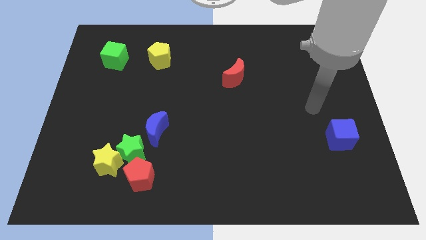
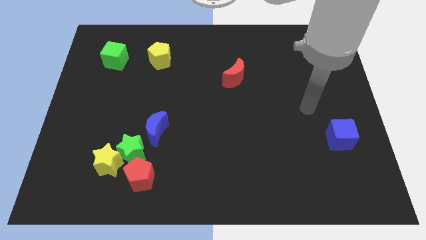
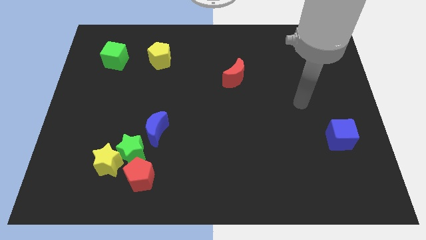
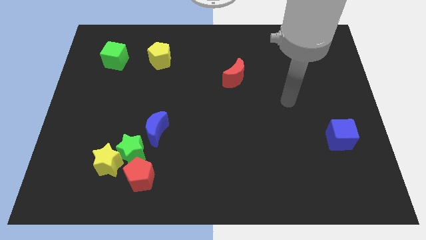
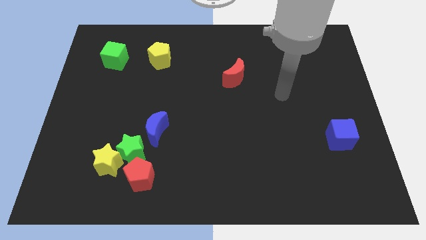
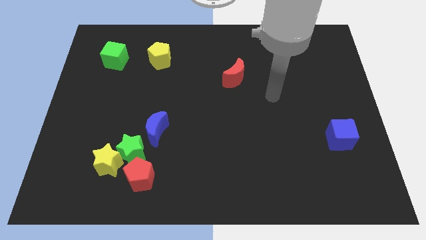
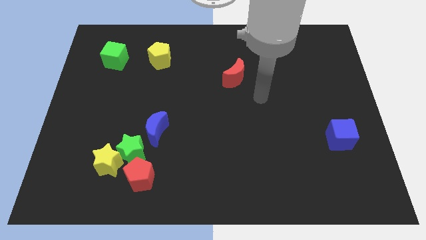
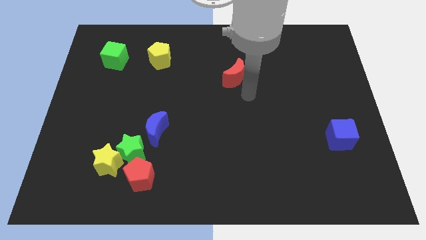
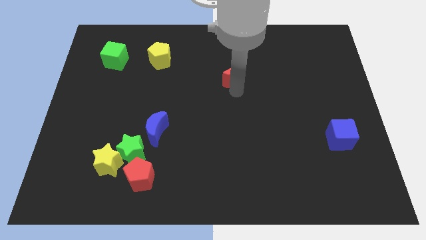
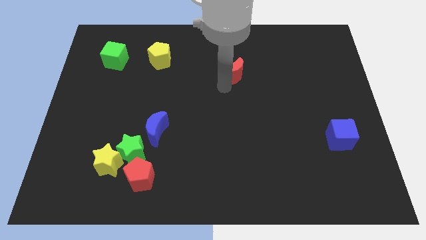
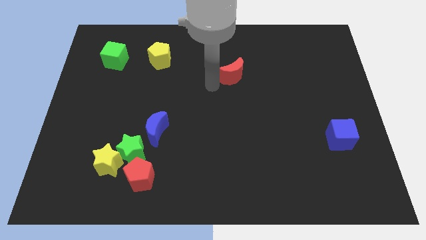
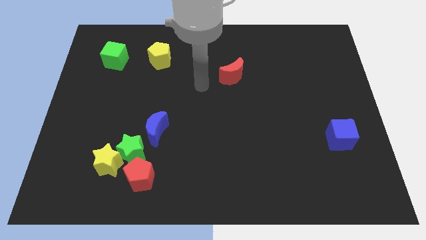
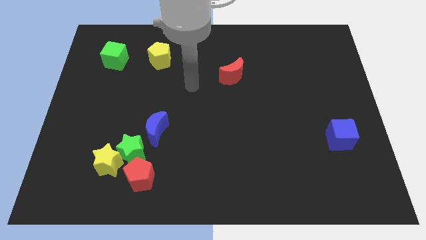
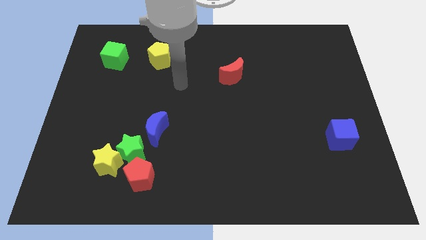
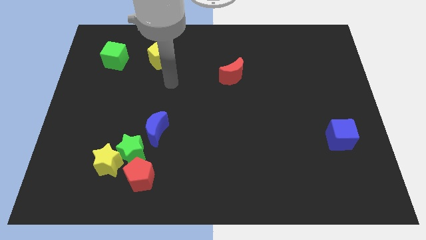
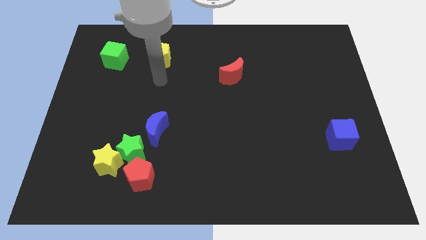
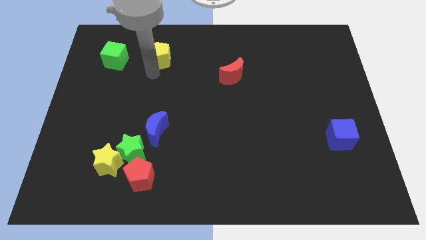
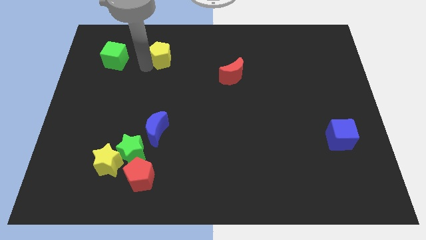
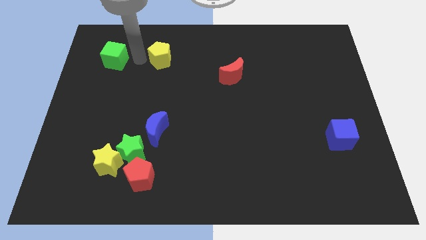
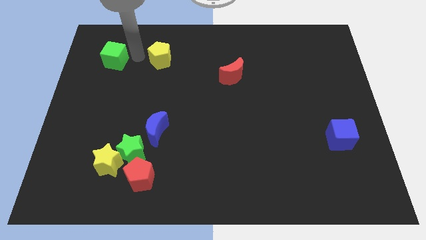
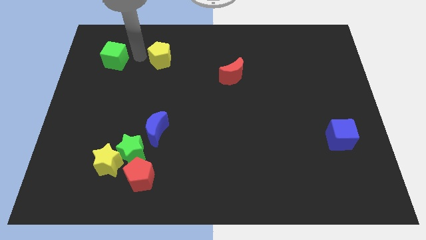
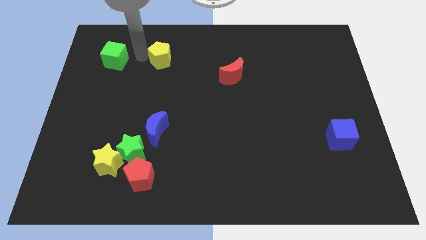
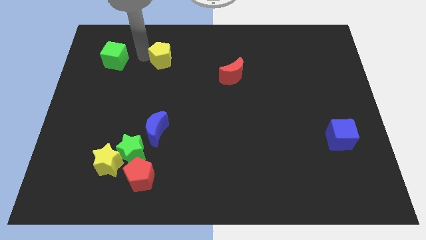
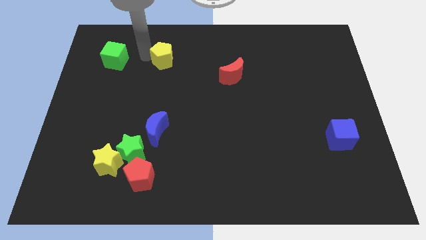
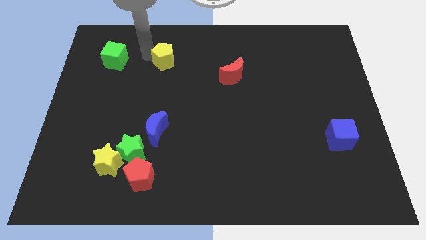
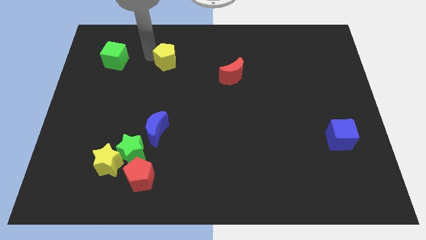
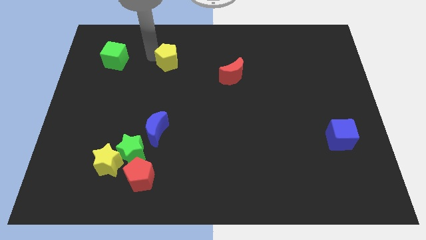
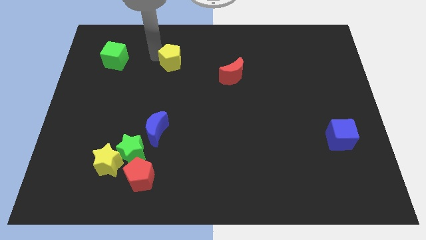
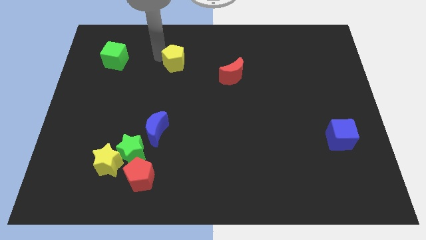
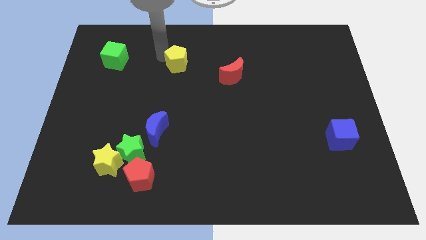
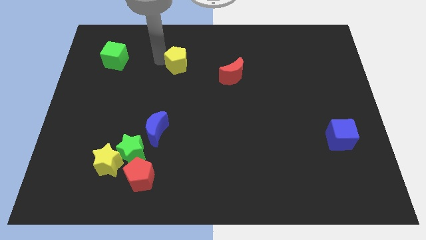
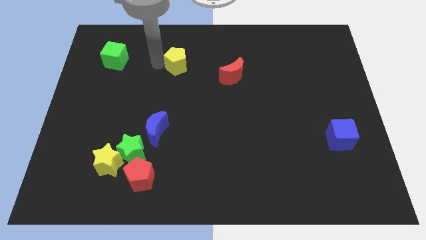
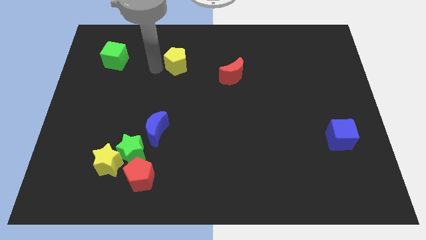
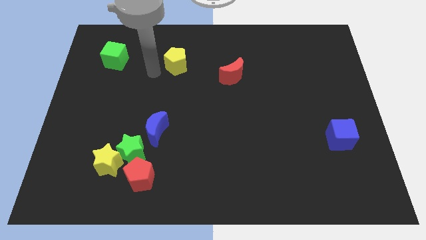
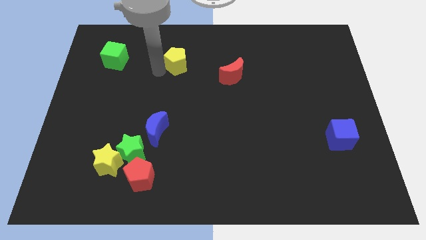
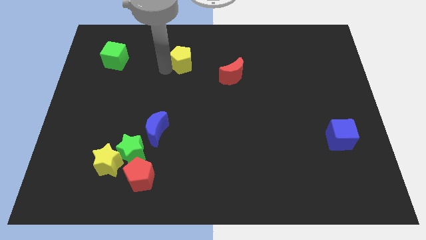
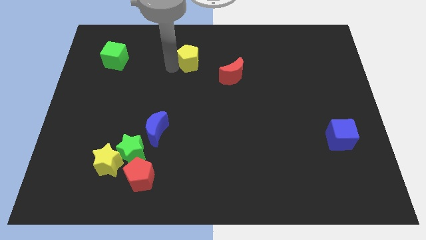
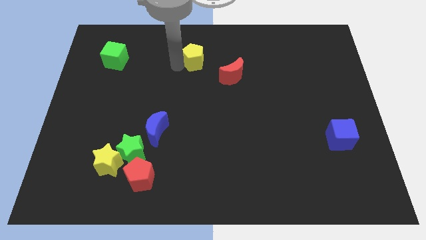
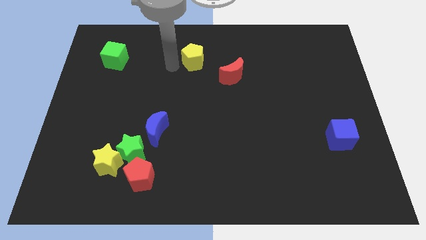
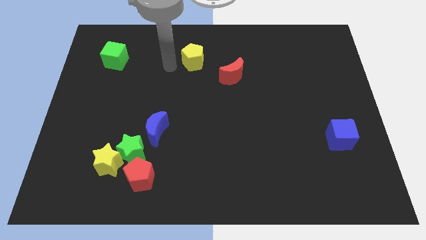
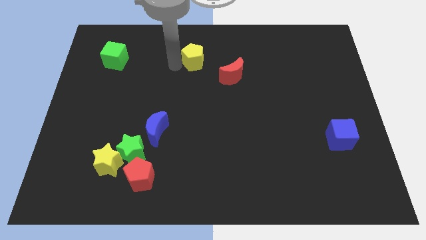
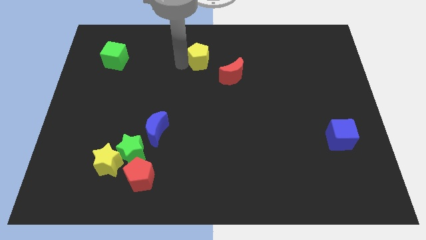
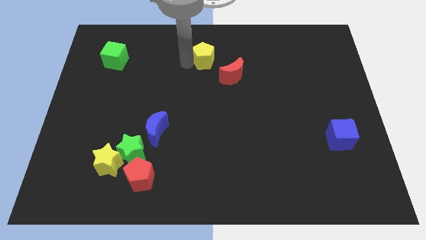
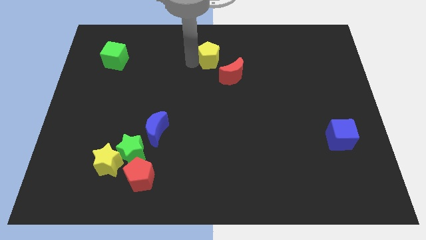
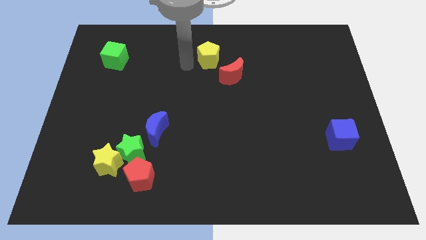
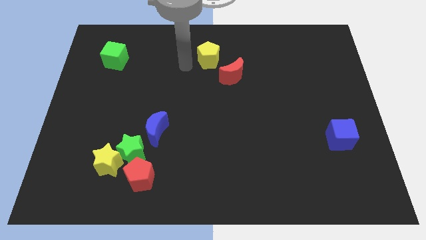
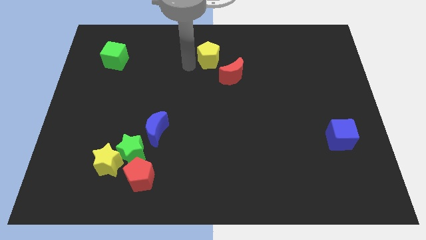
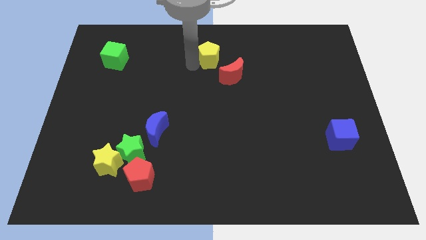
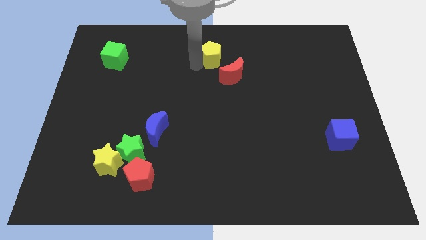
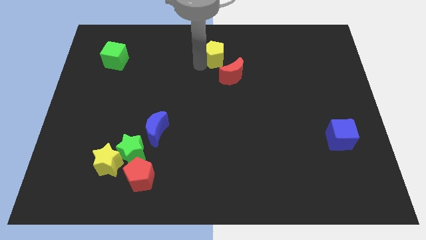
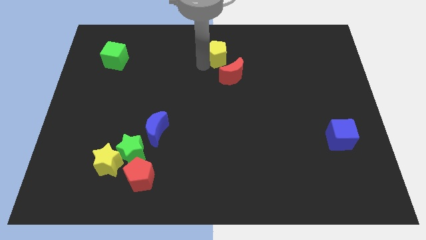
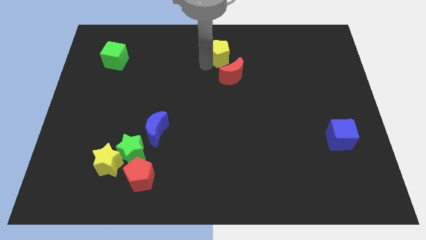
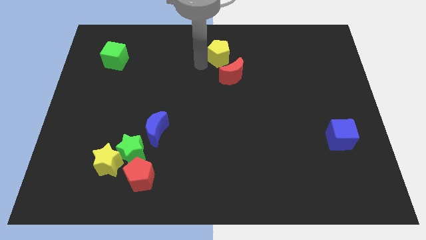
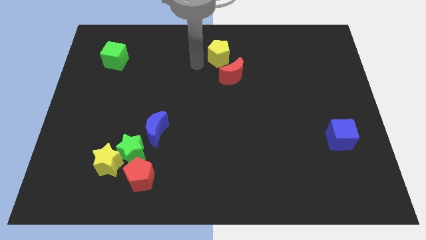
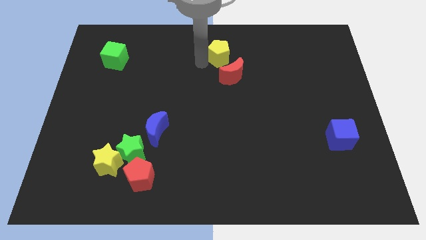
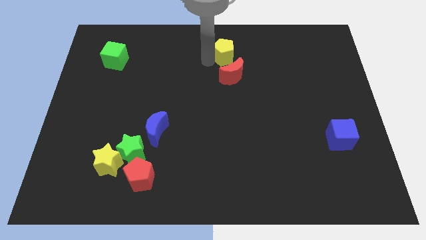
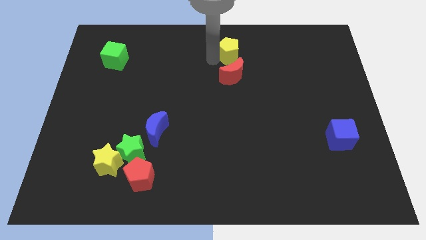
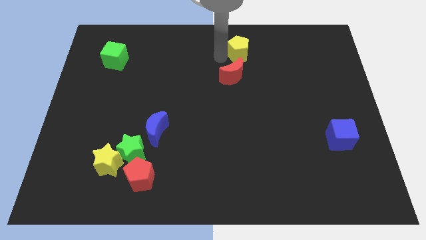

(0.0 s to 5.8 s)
slide the yellow pentagon to the right

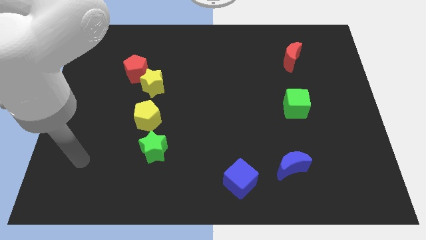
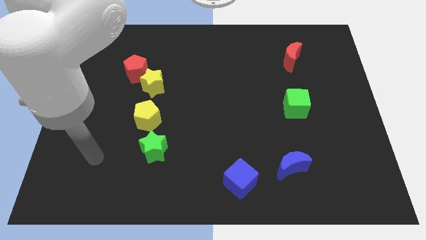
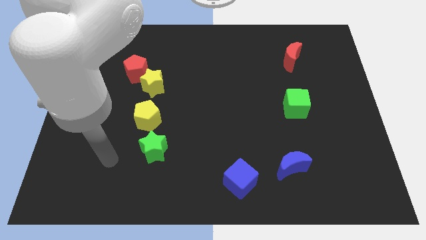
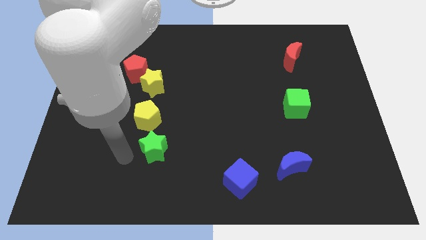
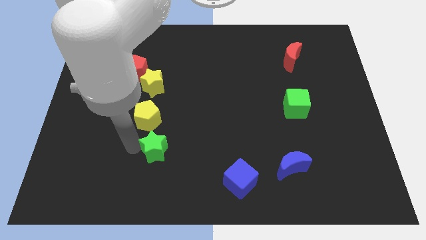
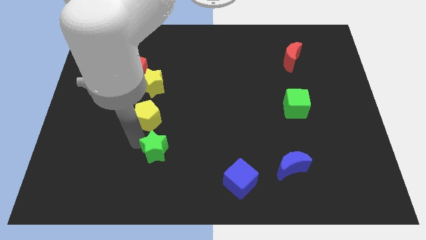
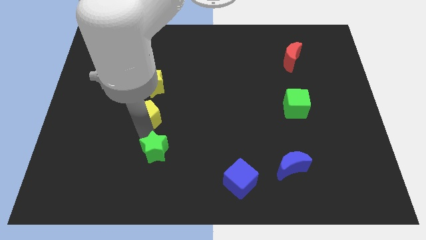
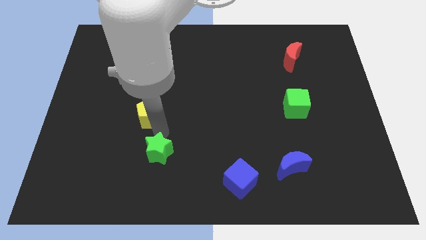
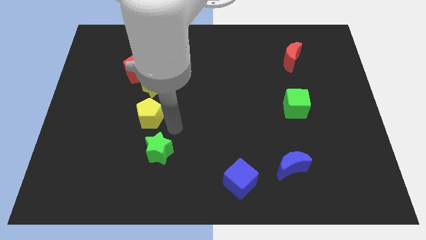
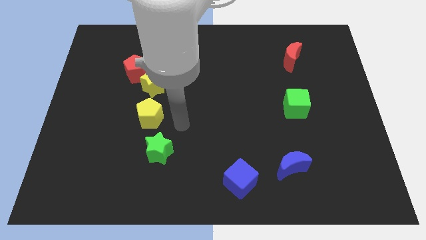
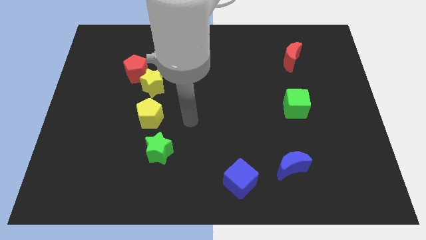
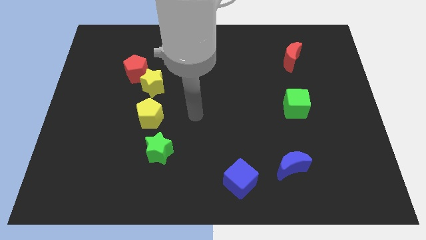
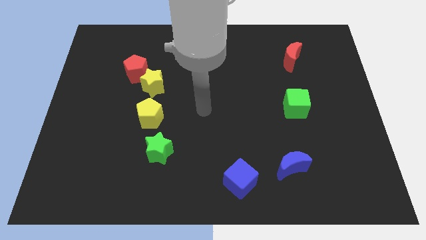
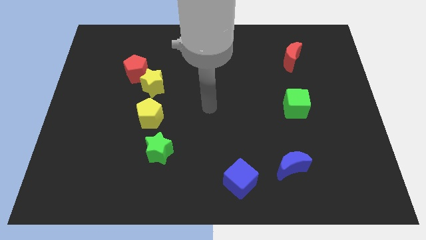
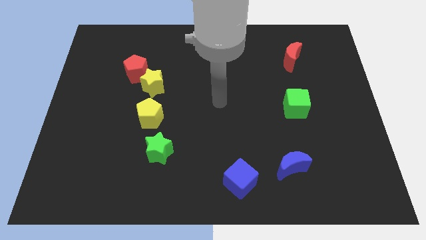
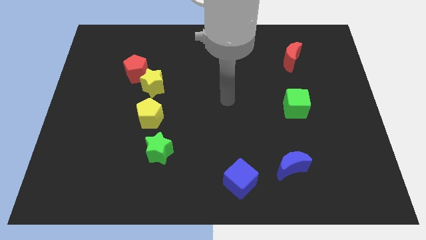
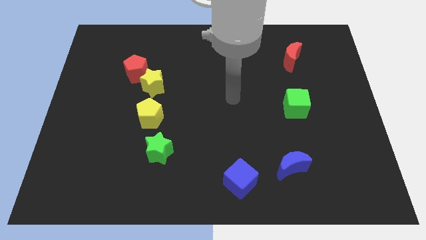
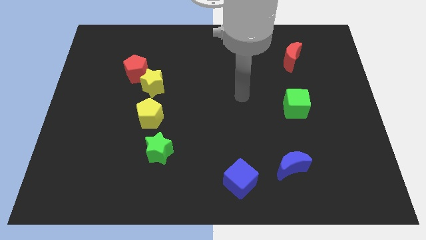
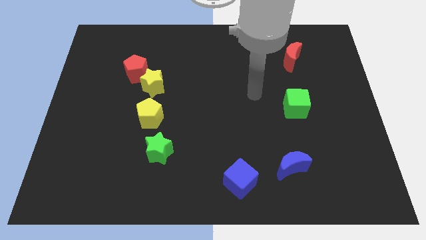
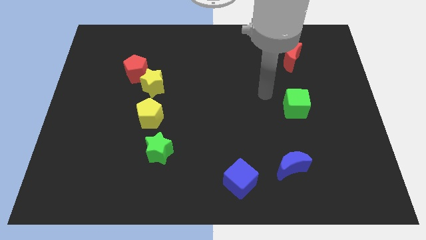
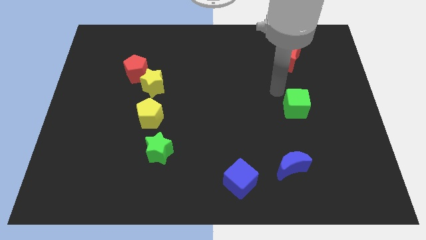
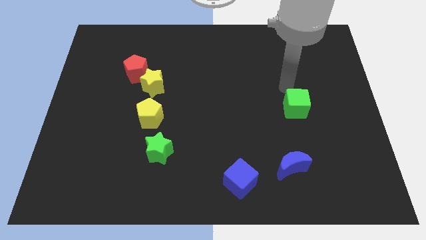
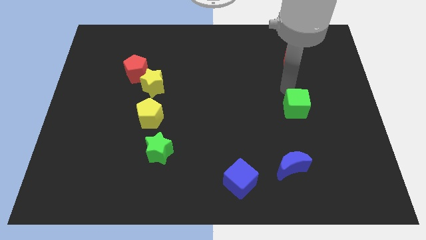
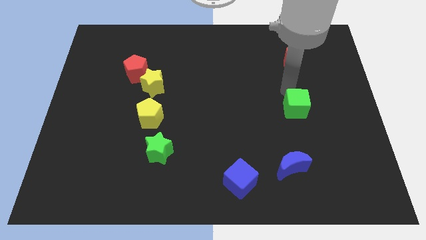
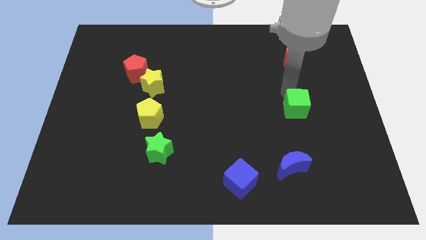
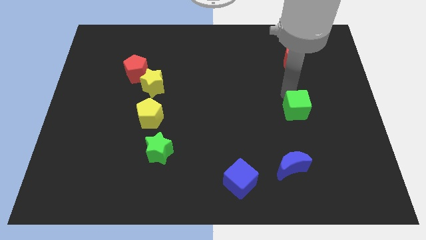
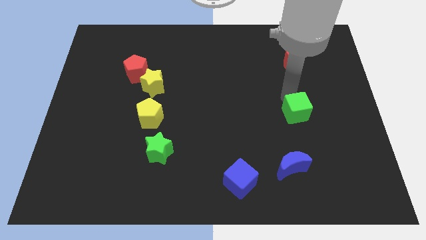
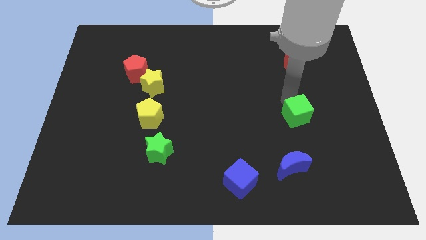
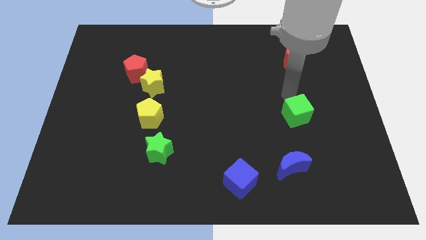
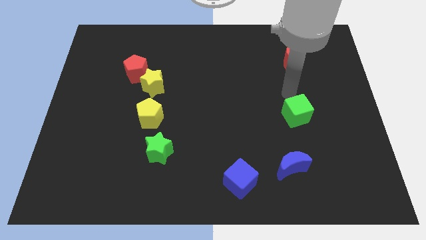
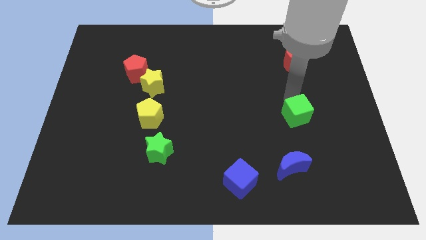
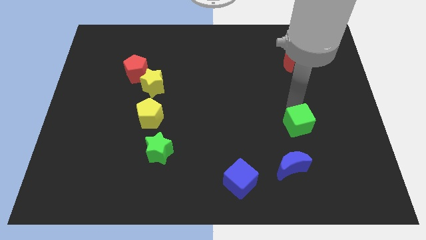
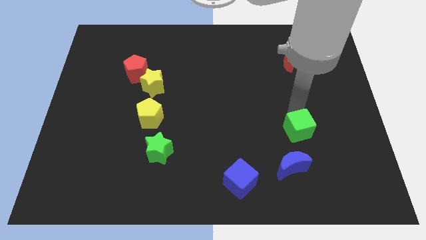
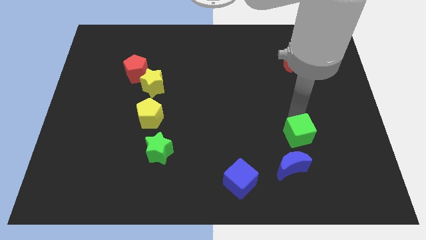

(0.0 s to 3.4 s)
move the green cube down a little bit
